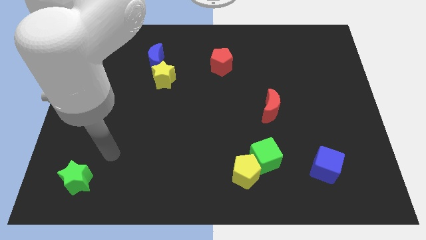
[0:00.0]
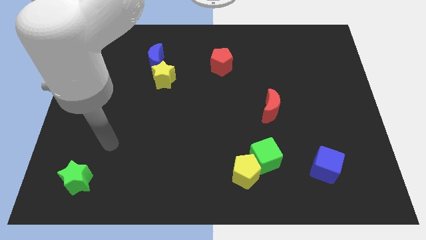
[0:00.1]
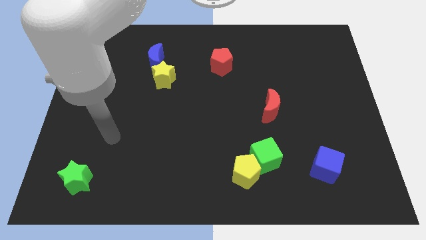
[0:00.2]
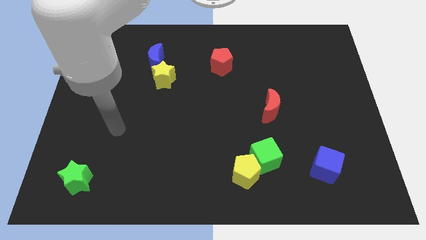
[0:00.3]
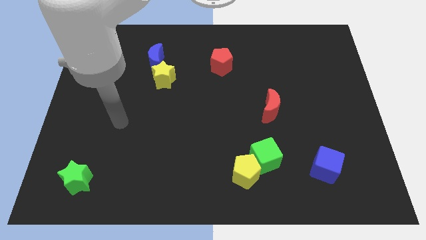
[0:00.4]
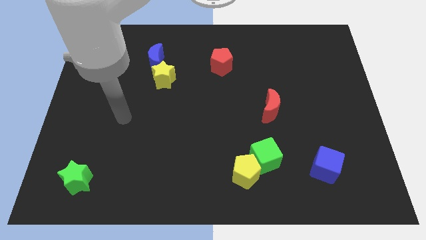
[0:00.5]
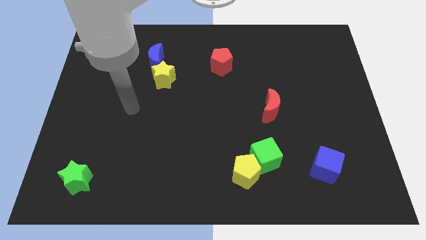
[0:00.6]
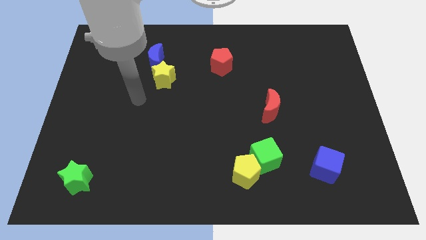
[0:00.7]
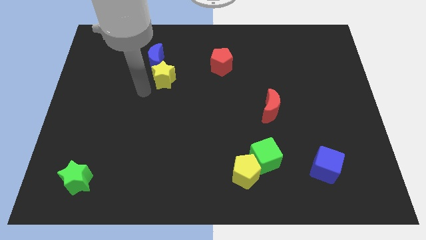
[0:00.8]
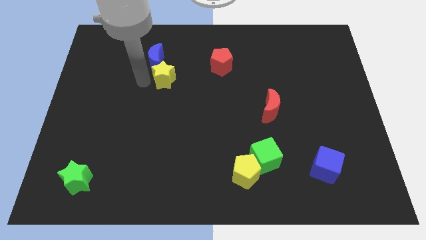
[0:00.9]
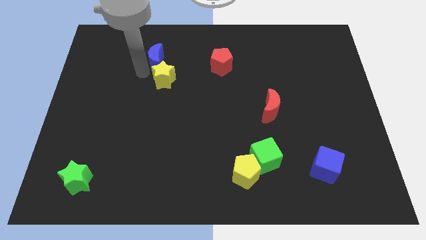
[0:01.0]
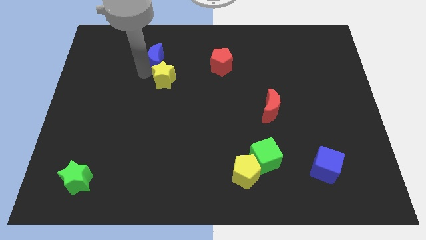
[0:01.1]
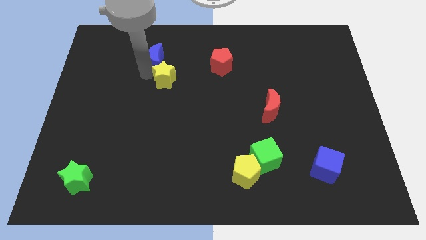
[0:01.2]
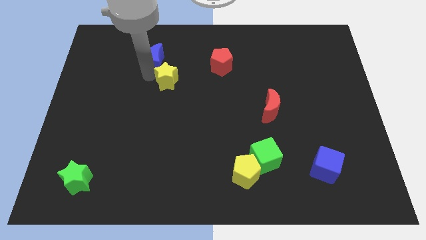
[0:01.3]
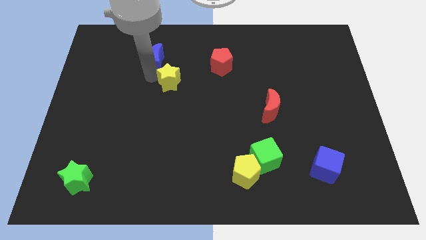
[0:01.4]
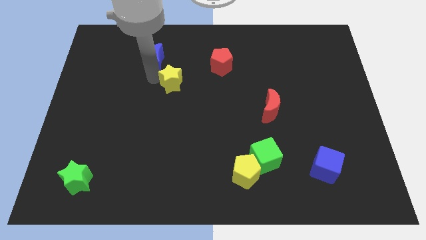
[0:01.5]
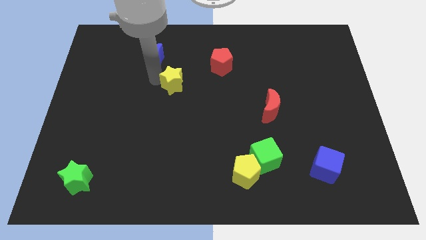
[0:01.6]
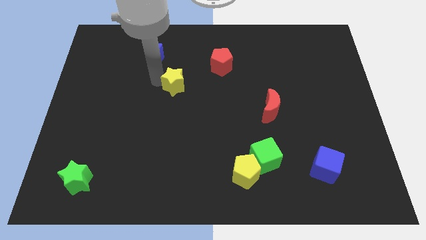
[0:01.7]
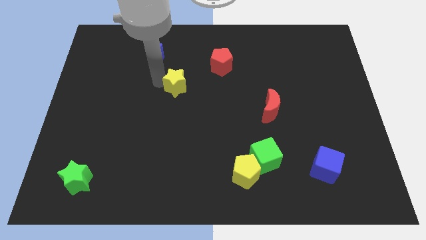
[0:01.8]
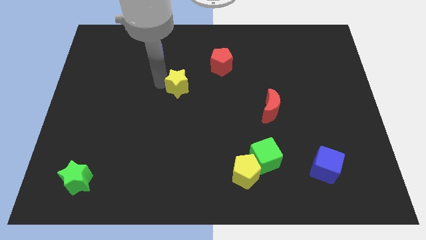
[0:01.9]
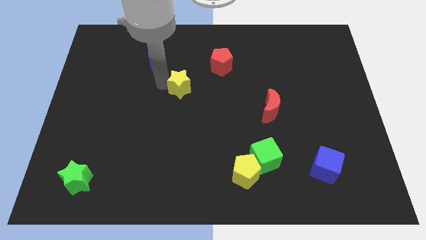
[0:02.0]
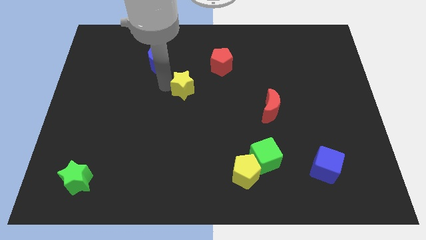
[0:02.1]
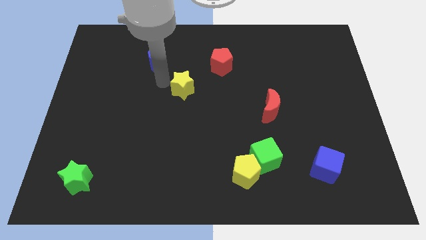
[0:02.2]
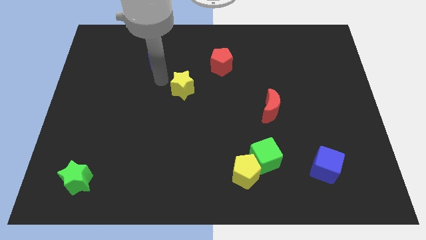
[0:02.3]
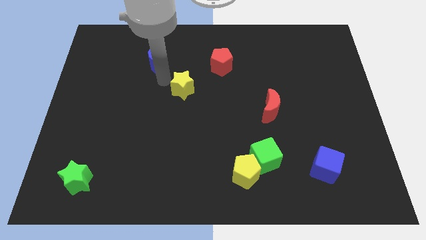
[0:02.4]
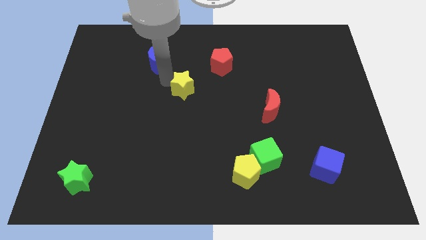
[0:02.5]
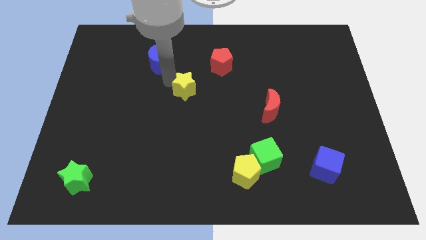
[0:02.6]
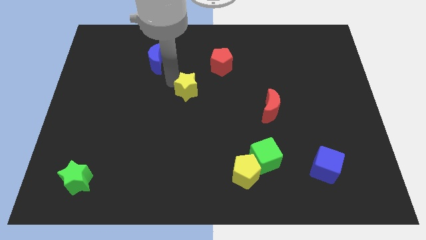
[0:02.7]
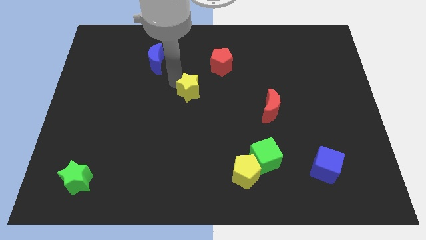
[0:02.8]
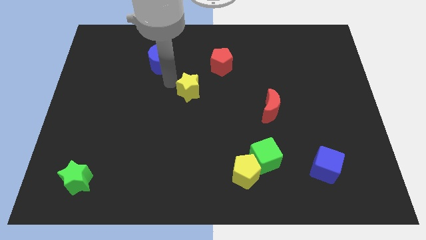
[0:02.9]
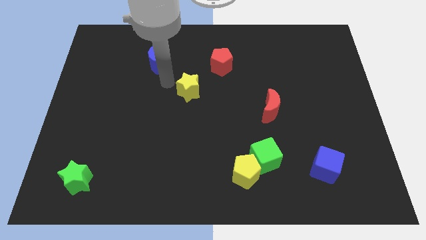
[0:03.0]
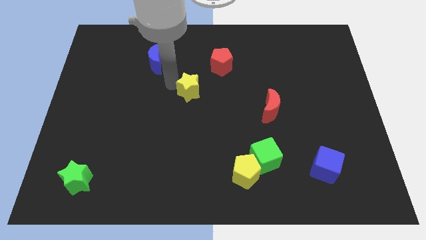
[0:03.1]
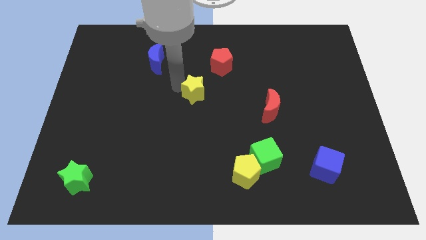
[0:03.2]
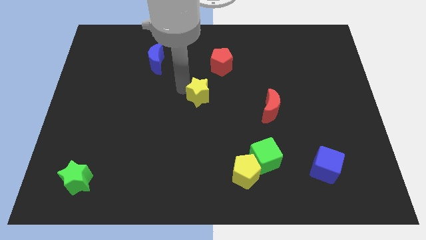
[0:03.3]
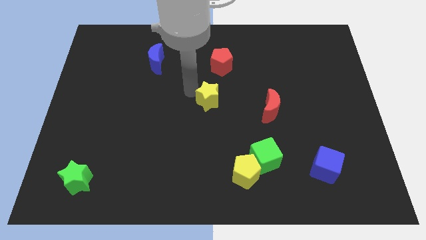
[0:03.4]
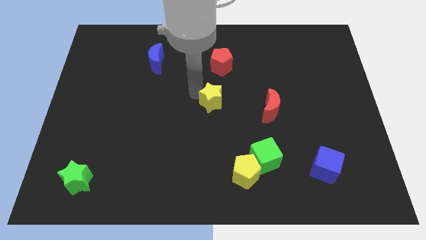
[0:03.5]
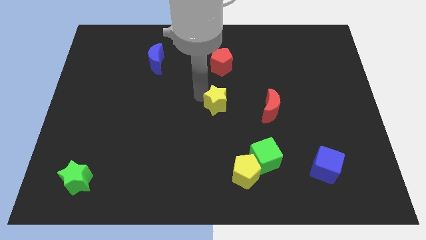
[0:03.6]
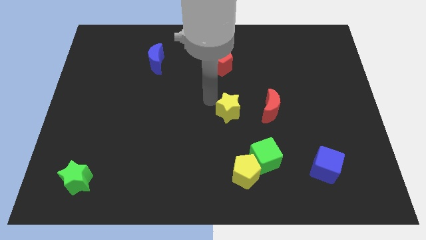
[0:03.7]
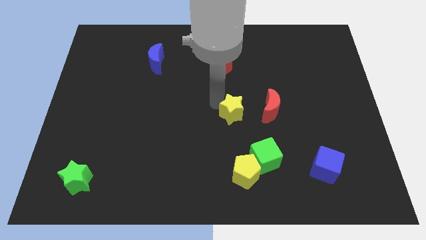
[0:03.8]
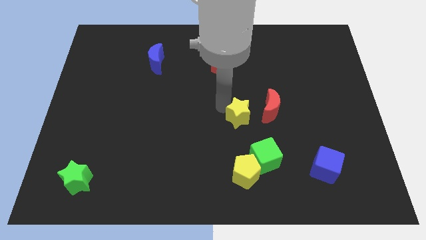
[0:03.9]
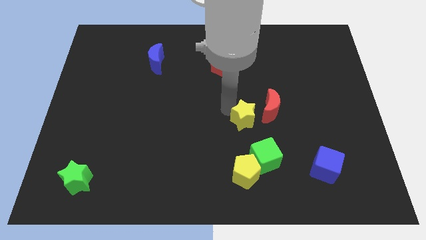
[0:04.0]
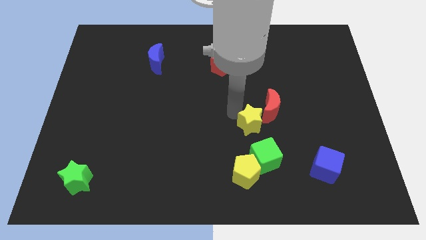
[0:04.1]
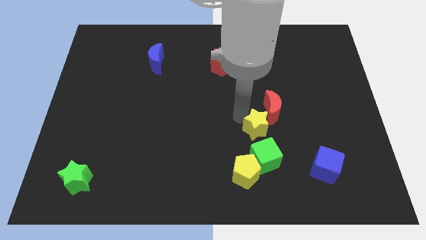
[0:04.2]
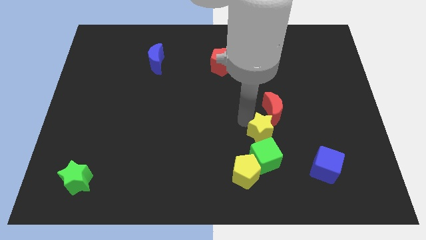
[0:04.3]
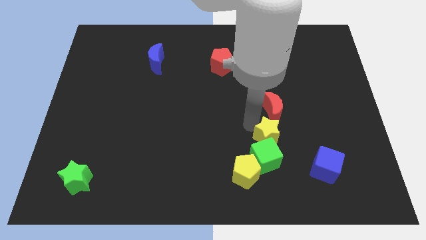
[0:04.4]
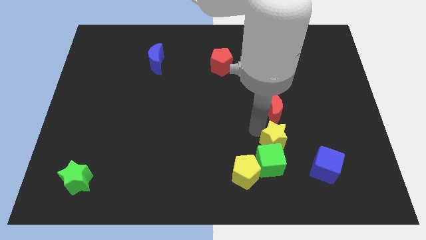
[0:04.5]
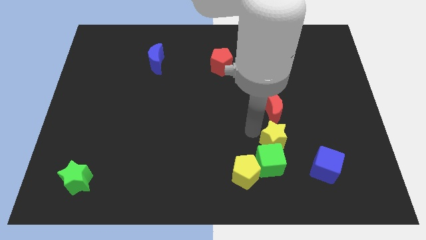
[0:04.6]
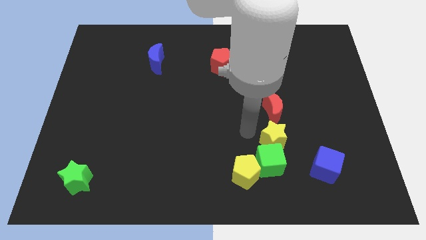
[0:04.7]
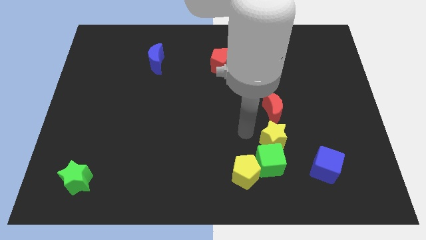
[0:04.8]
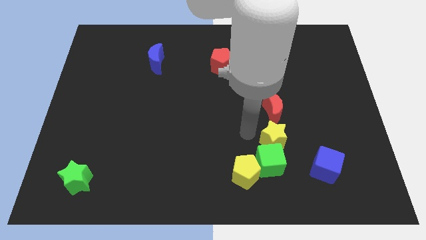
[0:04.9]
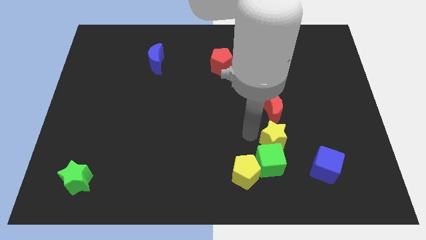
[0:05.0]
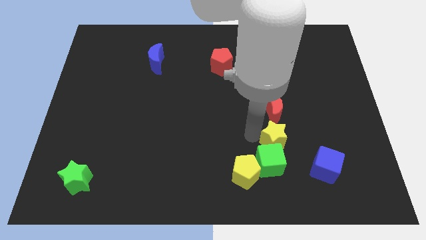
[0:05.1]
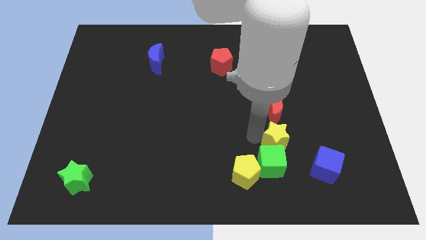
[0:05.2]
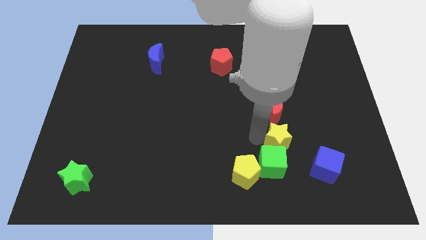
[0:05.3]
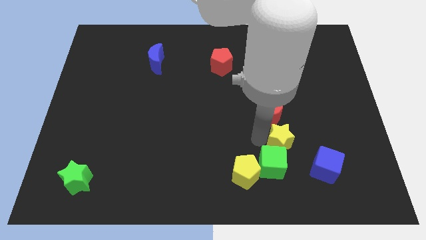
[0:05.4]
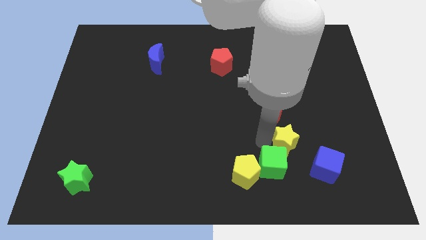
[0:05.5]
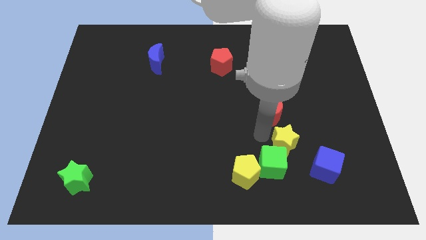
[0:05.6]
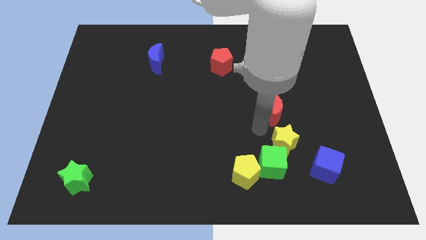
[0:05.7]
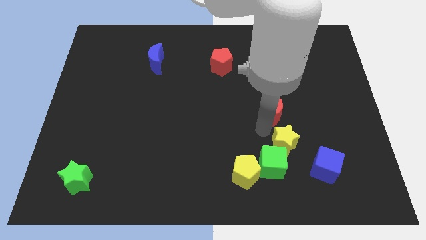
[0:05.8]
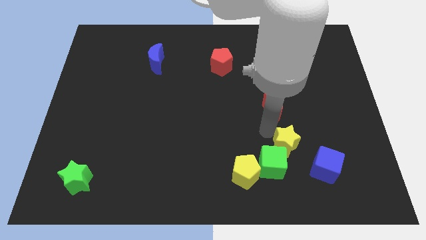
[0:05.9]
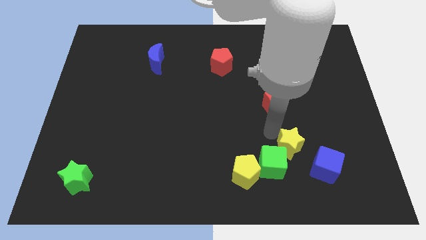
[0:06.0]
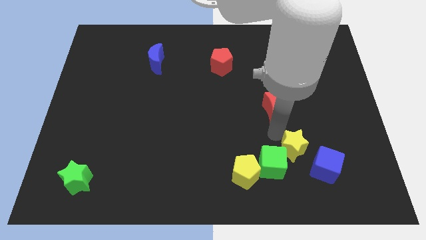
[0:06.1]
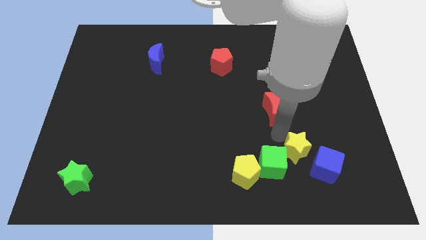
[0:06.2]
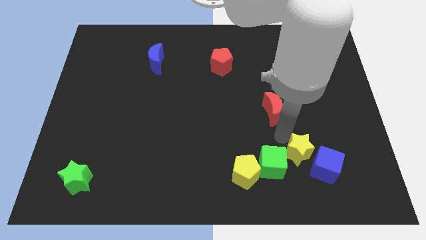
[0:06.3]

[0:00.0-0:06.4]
slide the yellow star next to the blue cube

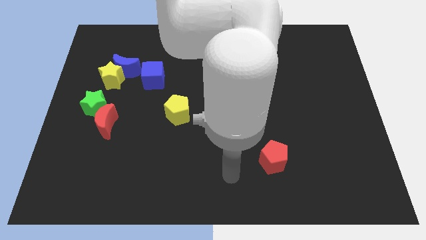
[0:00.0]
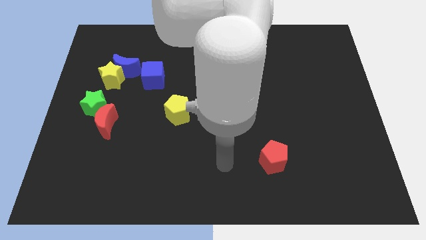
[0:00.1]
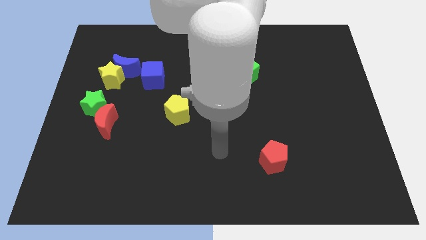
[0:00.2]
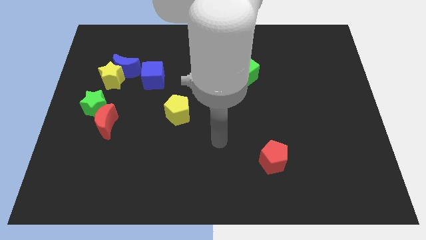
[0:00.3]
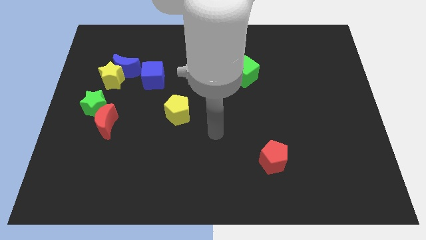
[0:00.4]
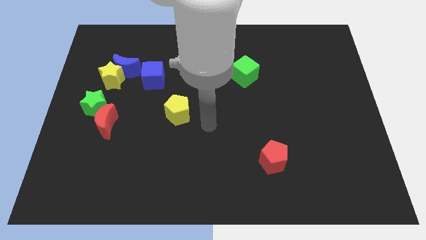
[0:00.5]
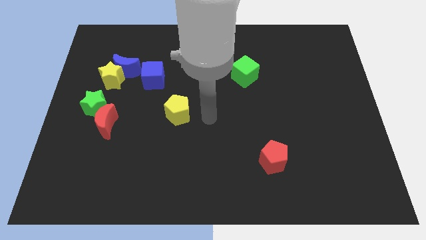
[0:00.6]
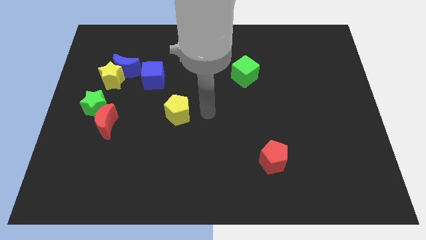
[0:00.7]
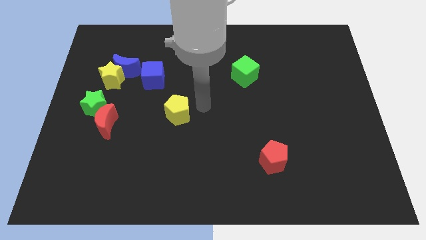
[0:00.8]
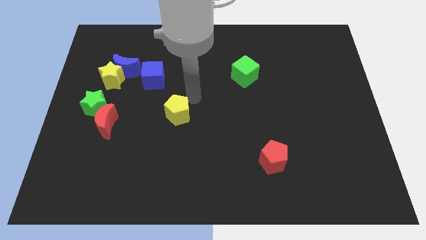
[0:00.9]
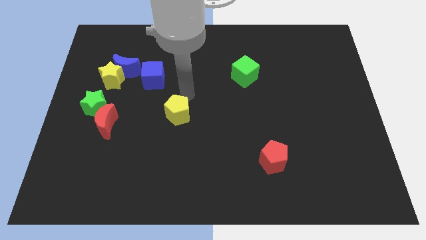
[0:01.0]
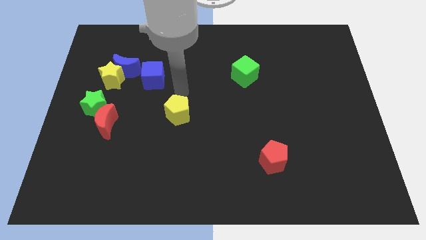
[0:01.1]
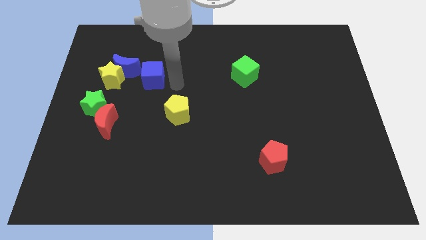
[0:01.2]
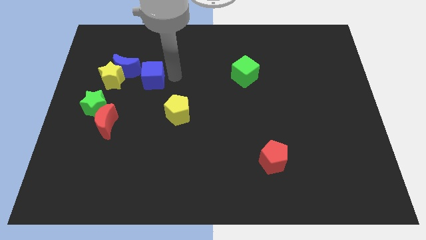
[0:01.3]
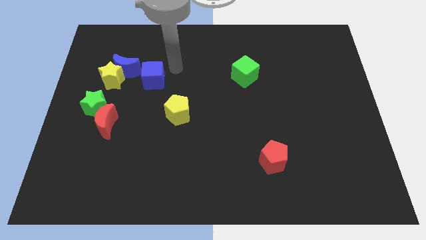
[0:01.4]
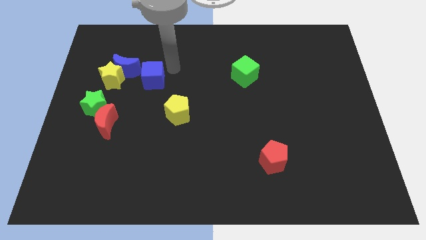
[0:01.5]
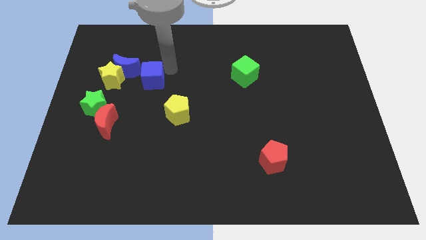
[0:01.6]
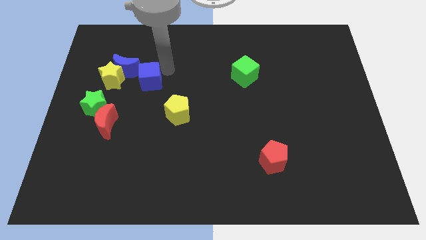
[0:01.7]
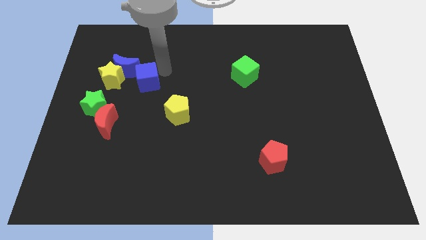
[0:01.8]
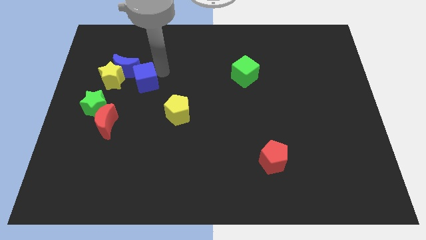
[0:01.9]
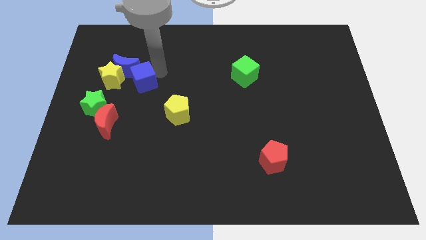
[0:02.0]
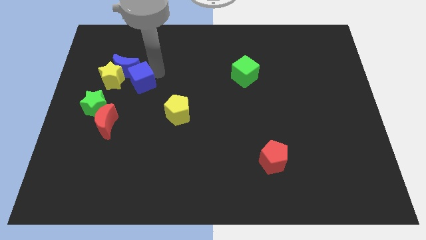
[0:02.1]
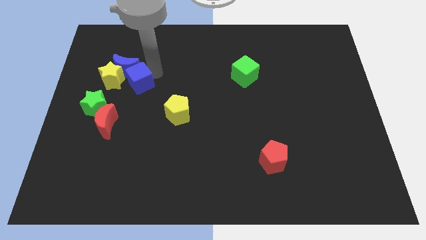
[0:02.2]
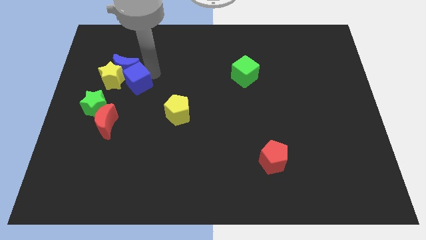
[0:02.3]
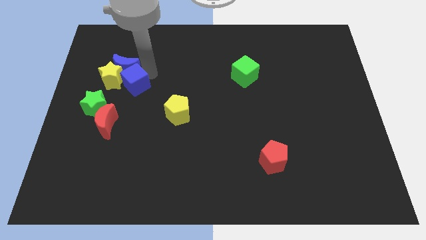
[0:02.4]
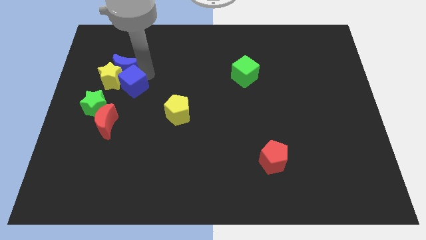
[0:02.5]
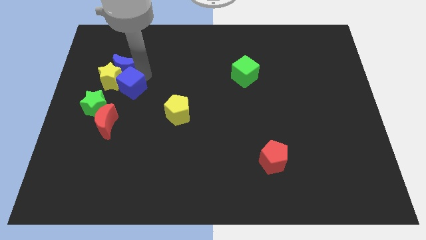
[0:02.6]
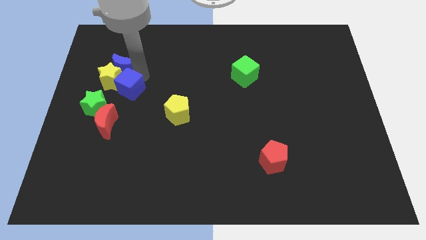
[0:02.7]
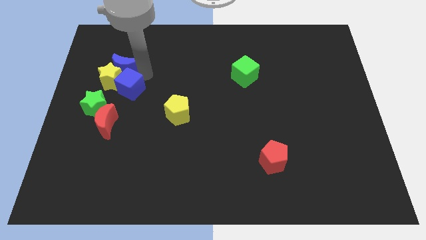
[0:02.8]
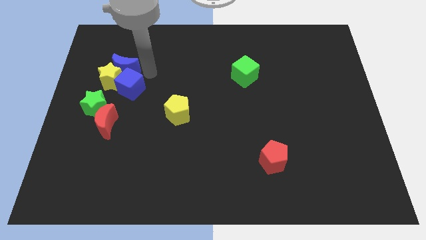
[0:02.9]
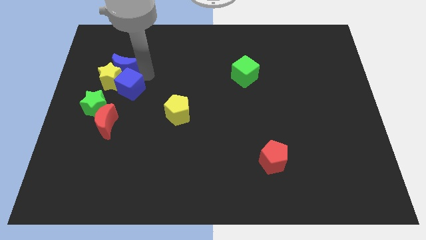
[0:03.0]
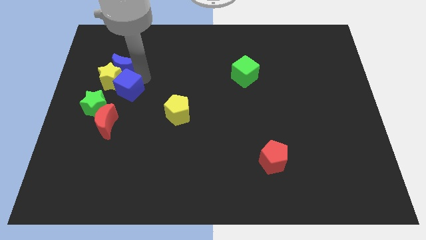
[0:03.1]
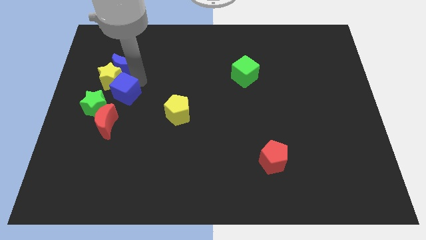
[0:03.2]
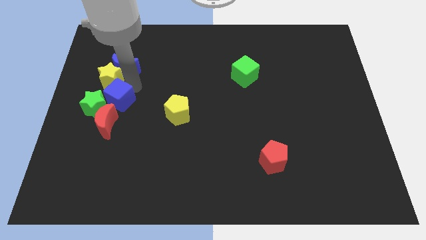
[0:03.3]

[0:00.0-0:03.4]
put the blue cube to the green star
